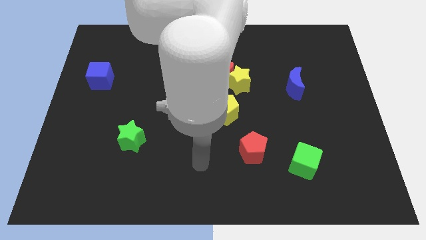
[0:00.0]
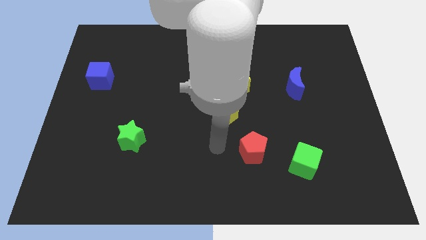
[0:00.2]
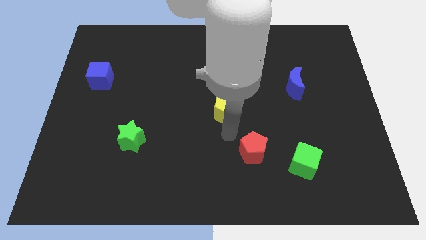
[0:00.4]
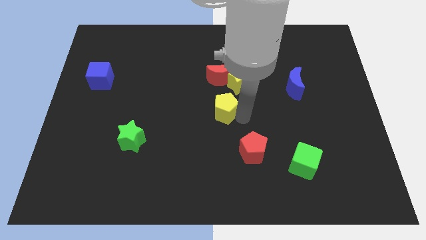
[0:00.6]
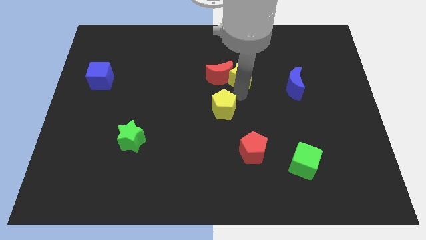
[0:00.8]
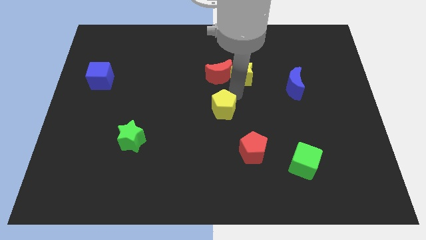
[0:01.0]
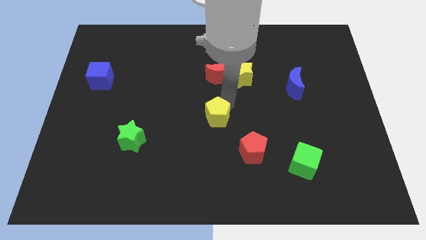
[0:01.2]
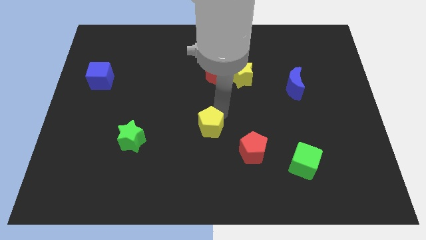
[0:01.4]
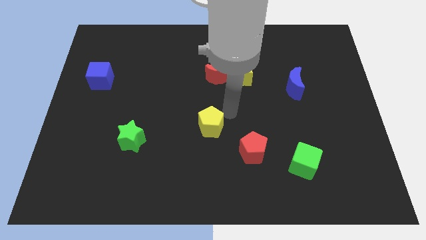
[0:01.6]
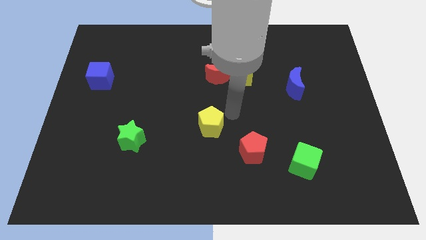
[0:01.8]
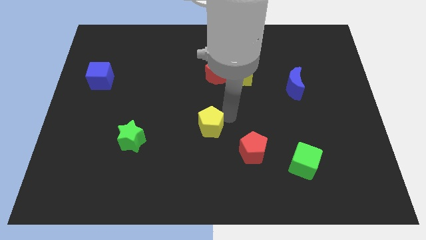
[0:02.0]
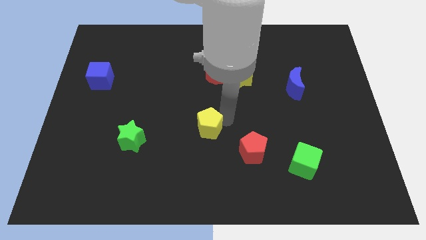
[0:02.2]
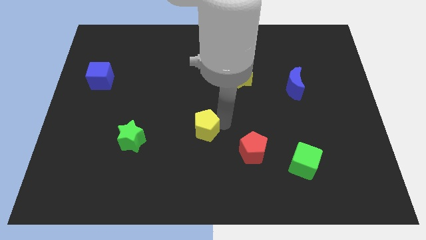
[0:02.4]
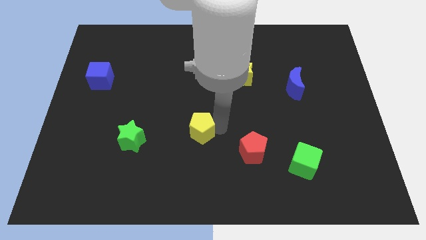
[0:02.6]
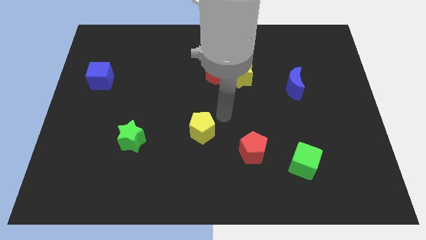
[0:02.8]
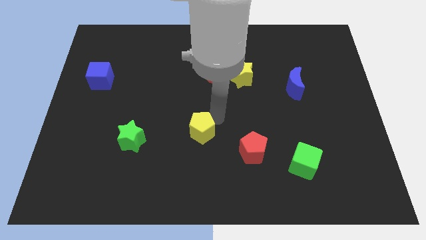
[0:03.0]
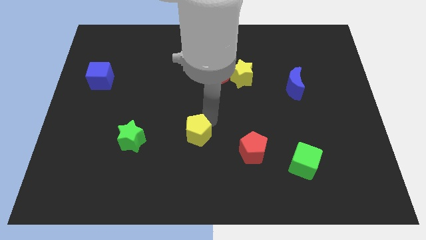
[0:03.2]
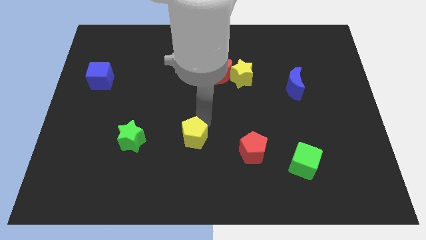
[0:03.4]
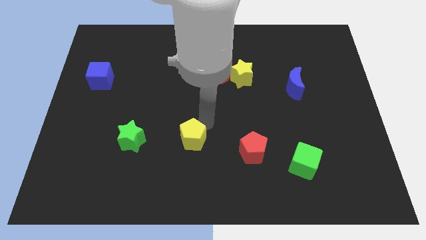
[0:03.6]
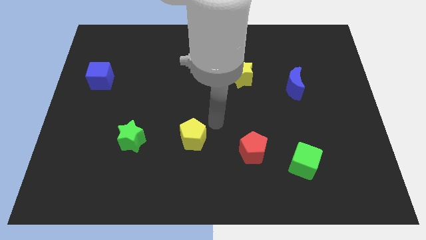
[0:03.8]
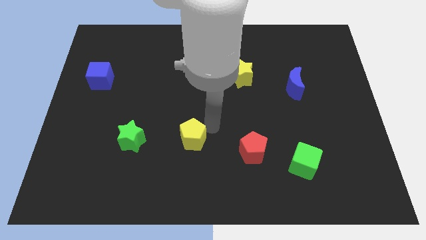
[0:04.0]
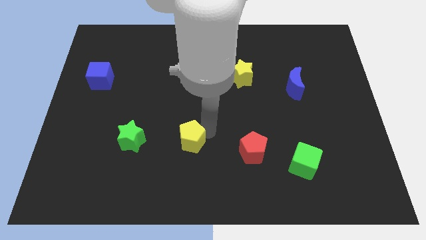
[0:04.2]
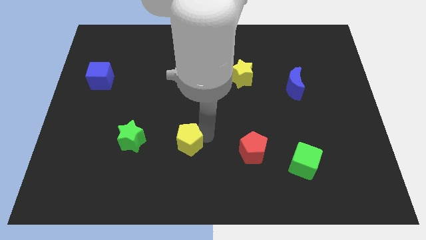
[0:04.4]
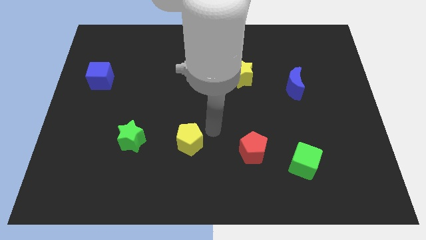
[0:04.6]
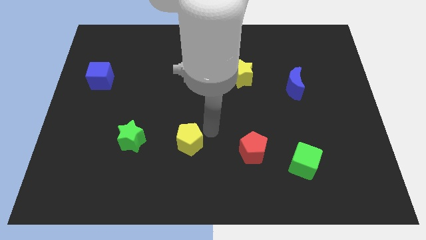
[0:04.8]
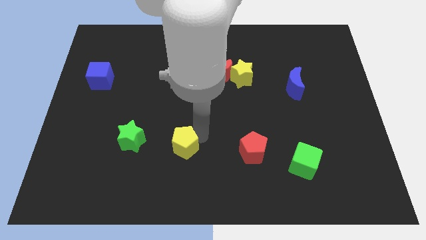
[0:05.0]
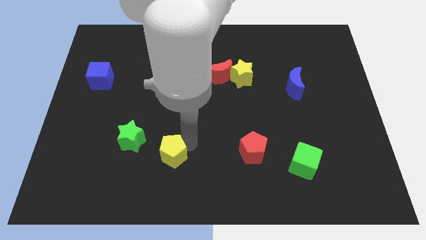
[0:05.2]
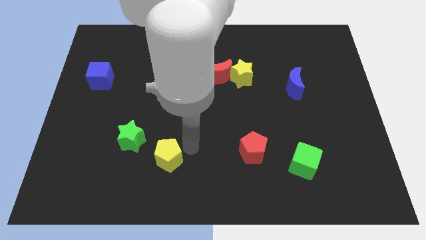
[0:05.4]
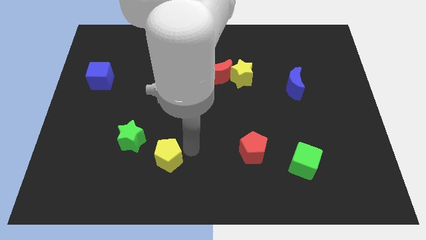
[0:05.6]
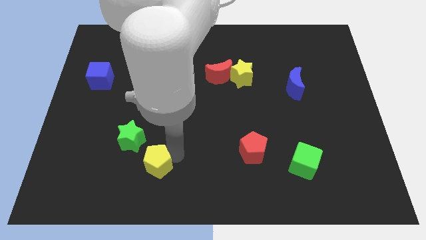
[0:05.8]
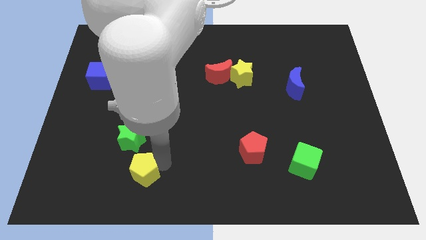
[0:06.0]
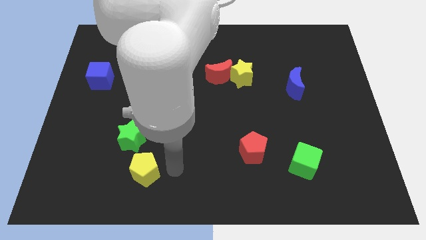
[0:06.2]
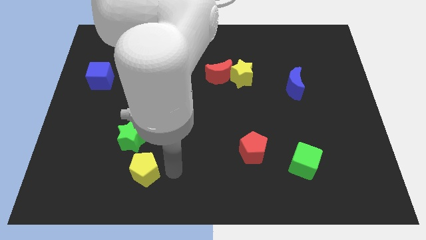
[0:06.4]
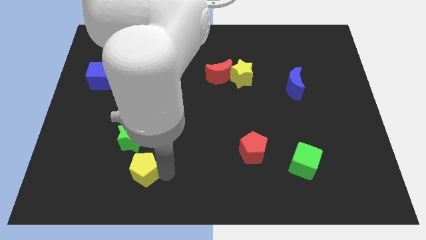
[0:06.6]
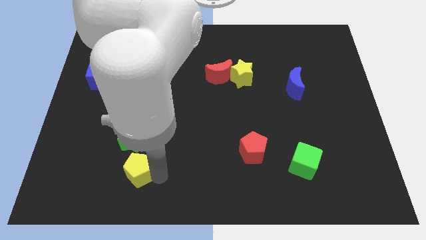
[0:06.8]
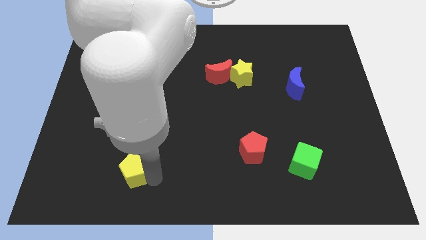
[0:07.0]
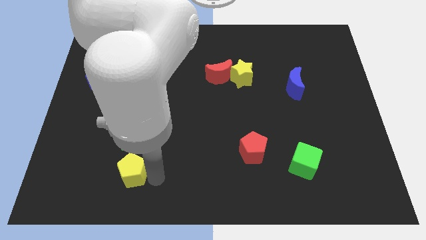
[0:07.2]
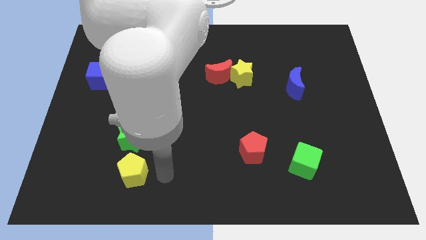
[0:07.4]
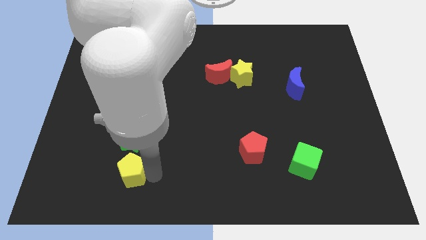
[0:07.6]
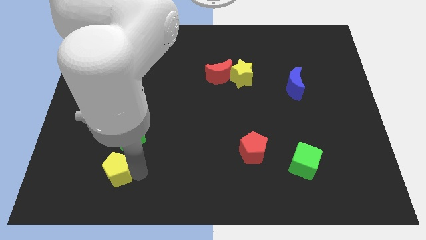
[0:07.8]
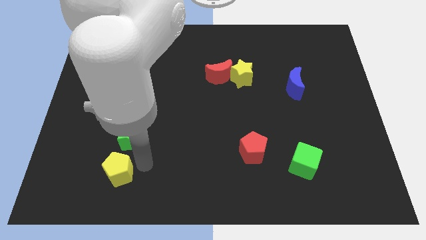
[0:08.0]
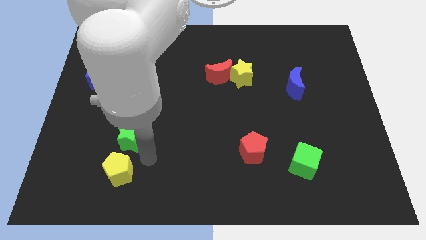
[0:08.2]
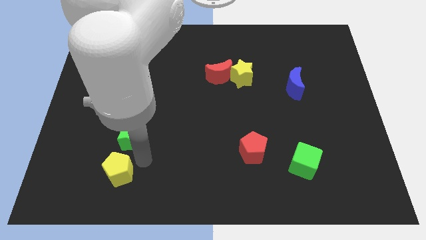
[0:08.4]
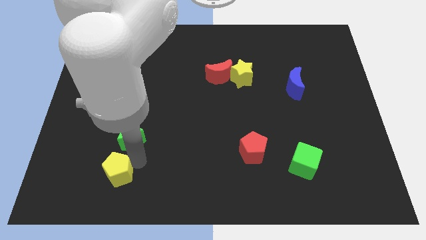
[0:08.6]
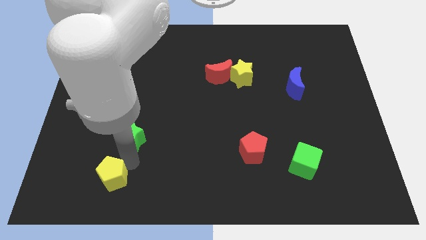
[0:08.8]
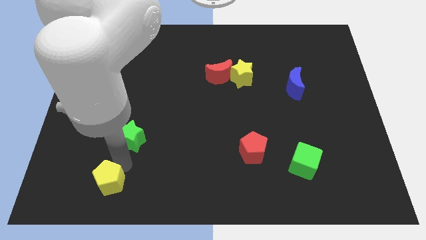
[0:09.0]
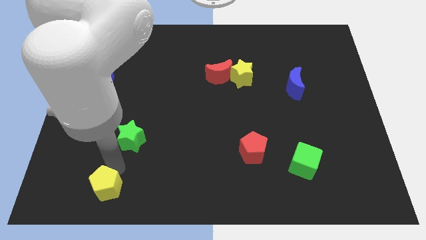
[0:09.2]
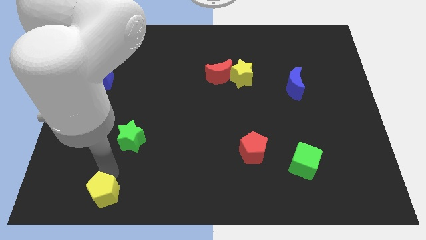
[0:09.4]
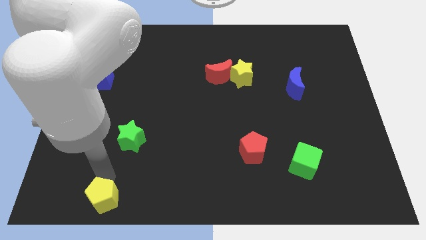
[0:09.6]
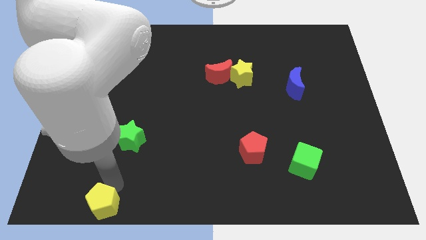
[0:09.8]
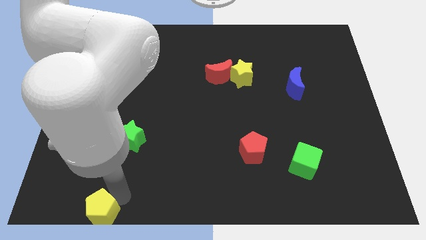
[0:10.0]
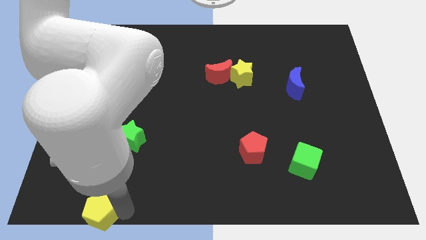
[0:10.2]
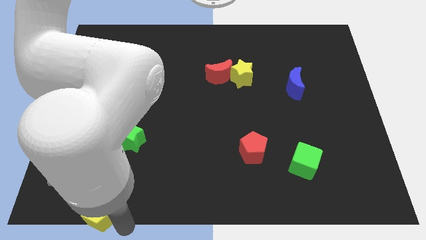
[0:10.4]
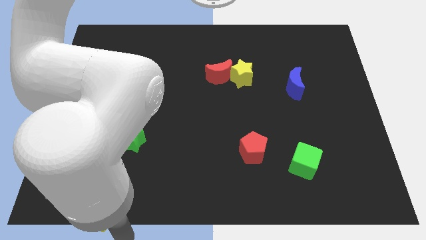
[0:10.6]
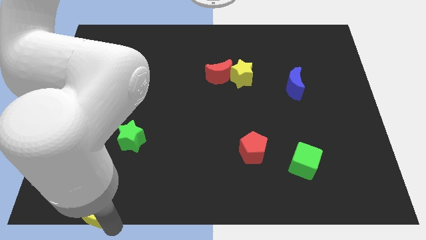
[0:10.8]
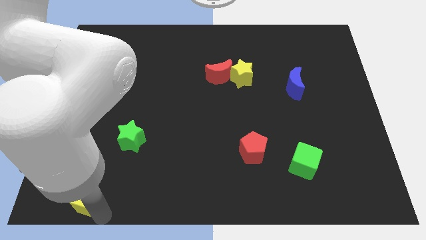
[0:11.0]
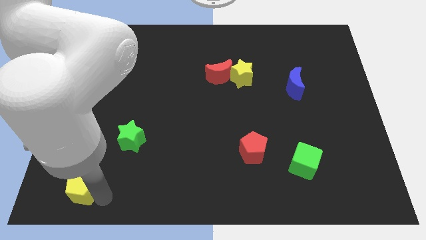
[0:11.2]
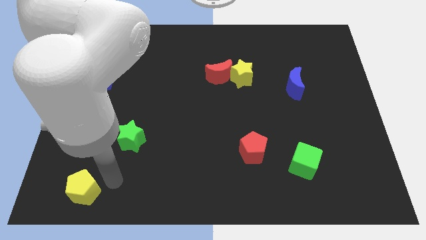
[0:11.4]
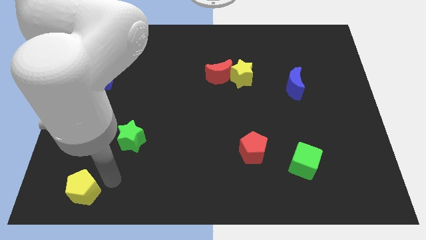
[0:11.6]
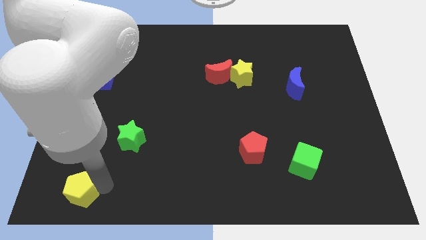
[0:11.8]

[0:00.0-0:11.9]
put the yellow pentagon to the bottom left of the board

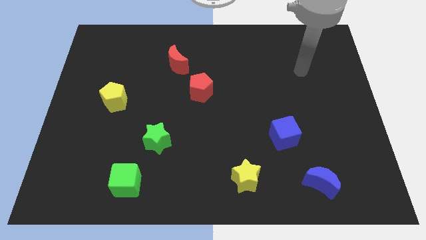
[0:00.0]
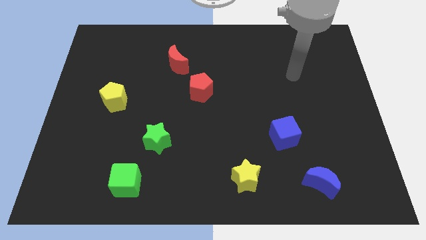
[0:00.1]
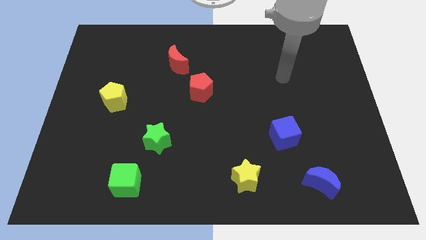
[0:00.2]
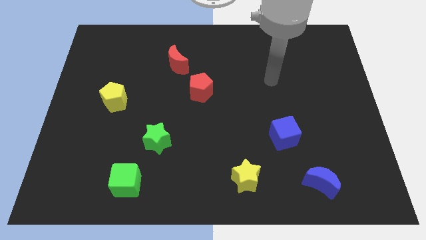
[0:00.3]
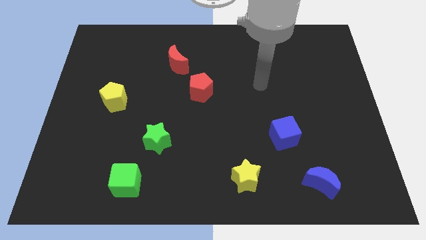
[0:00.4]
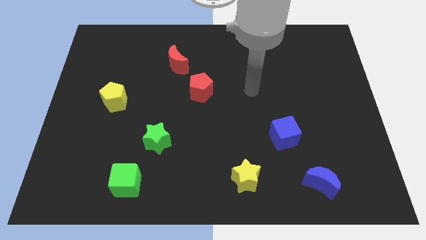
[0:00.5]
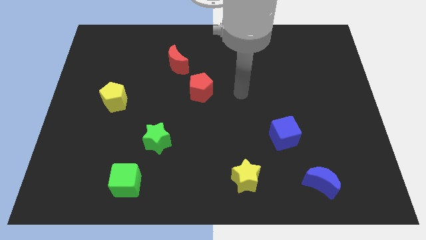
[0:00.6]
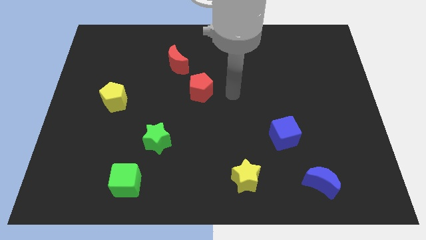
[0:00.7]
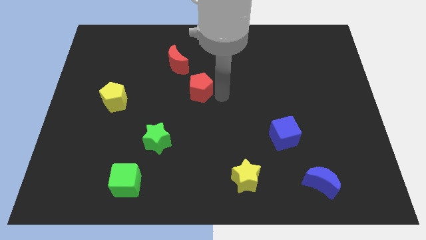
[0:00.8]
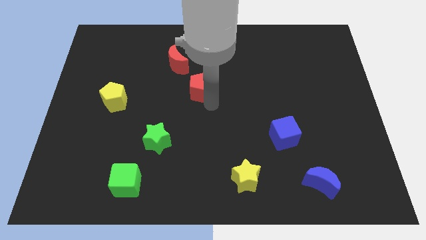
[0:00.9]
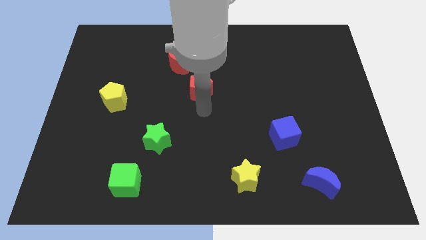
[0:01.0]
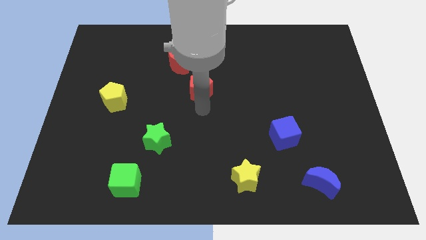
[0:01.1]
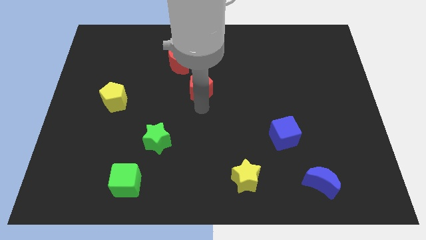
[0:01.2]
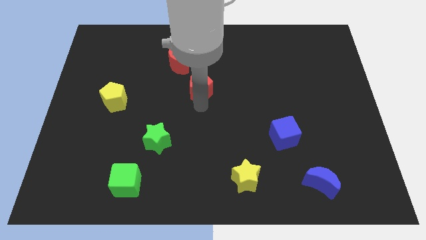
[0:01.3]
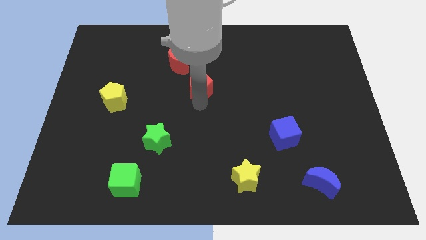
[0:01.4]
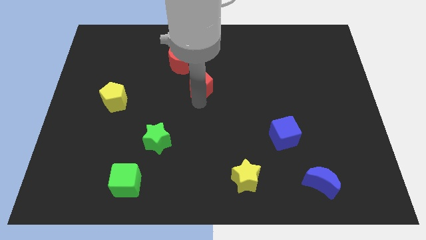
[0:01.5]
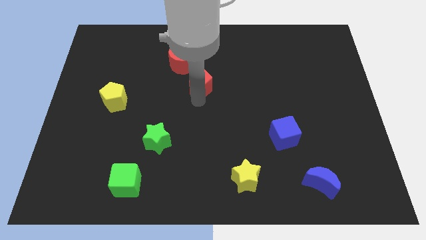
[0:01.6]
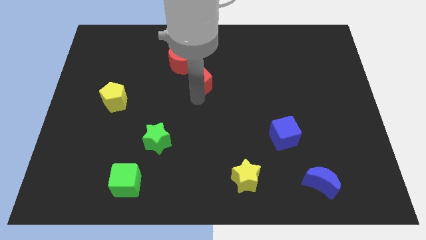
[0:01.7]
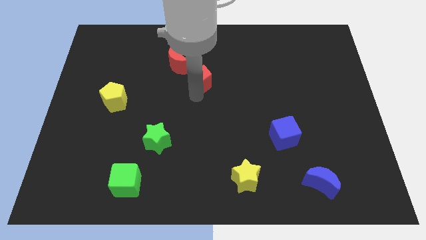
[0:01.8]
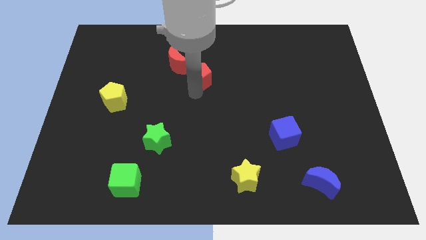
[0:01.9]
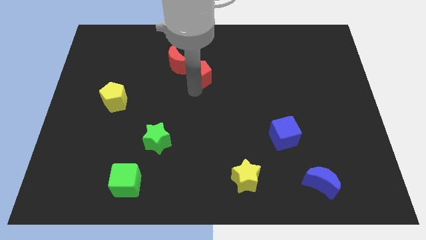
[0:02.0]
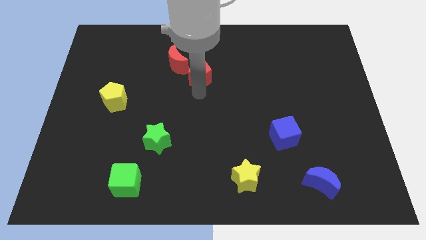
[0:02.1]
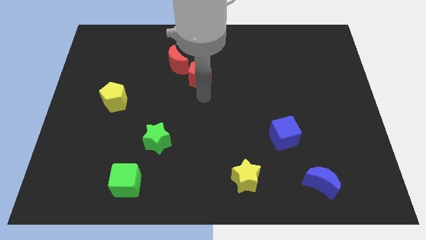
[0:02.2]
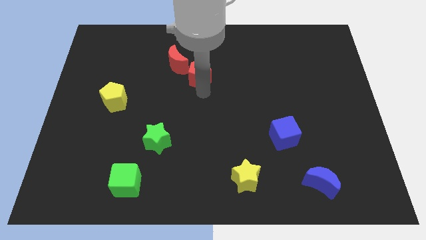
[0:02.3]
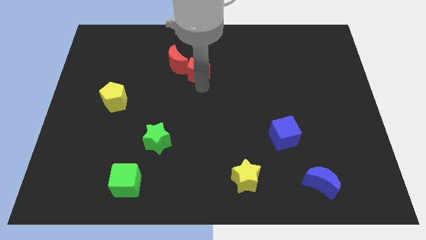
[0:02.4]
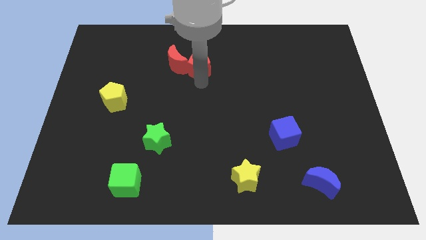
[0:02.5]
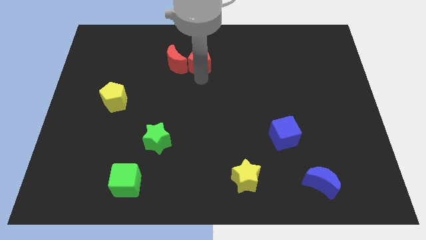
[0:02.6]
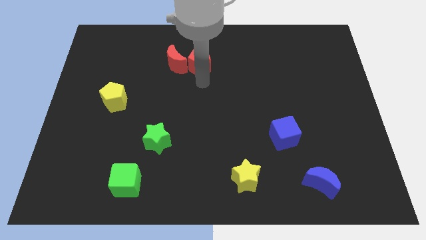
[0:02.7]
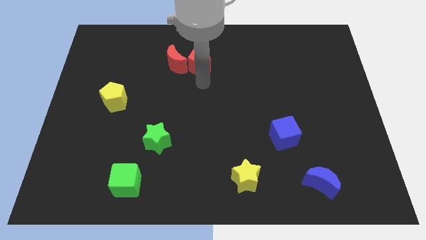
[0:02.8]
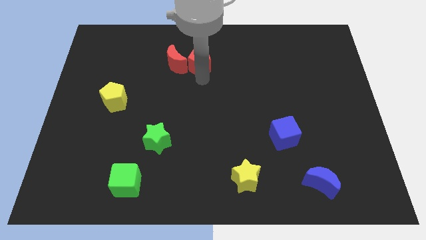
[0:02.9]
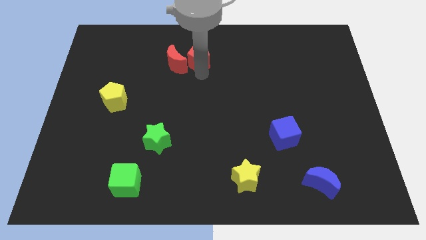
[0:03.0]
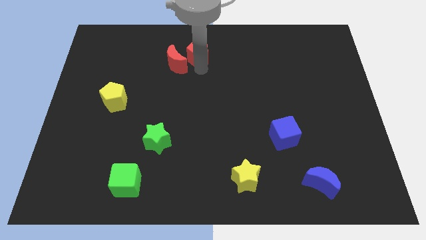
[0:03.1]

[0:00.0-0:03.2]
move the red pentagon to the top
